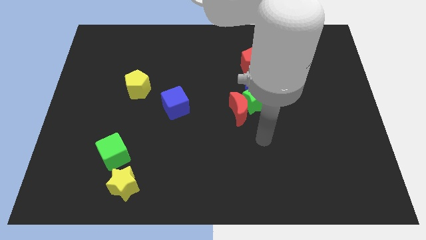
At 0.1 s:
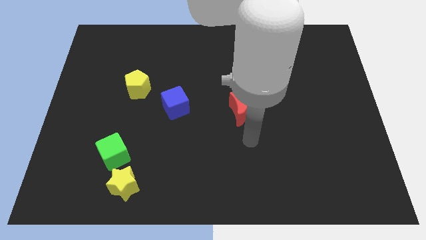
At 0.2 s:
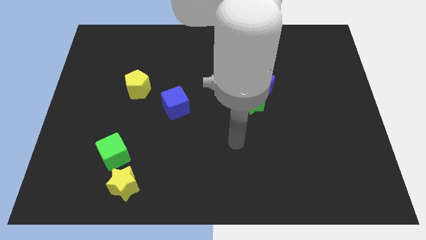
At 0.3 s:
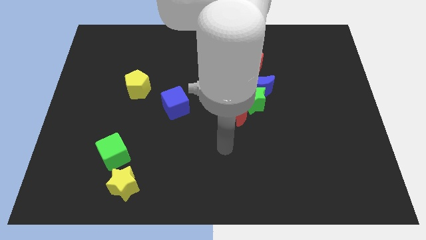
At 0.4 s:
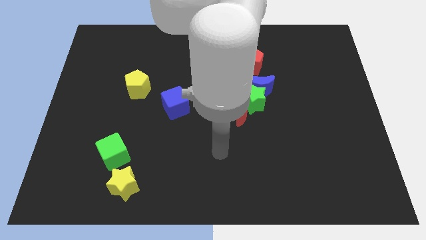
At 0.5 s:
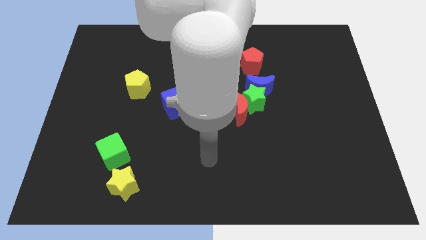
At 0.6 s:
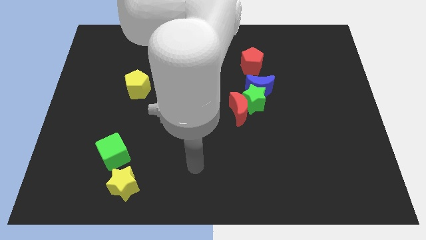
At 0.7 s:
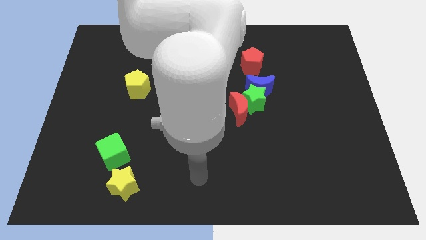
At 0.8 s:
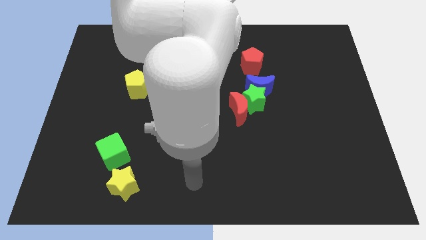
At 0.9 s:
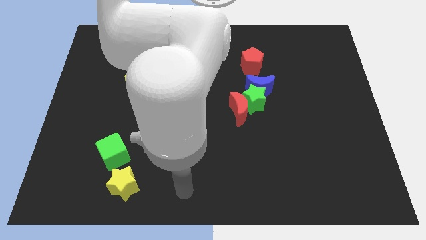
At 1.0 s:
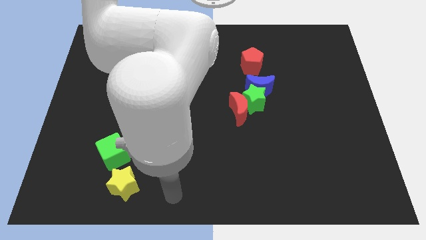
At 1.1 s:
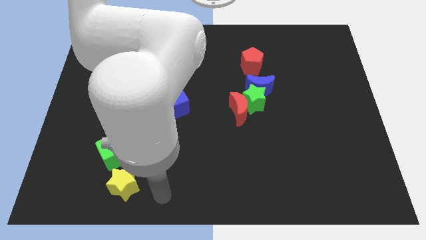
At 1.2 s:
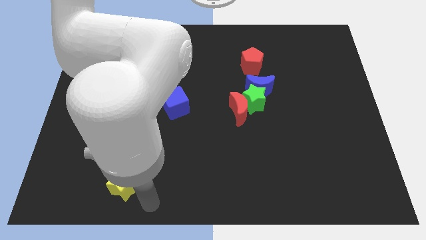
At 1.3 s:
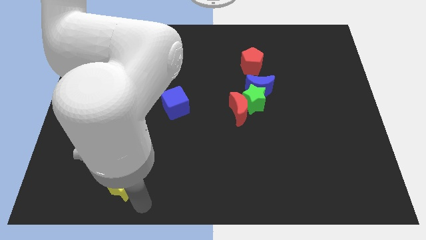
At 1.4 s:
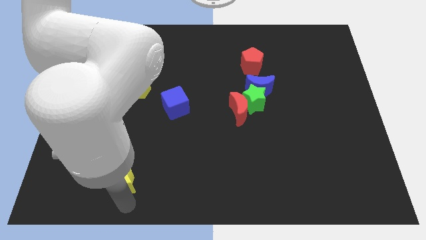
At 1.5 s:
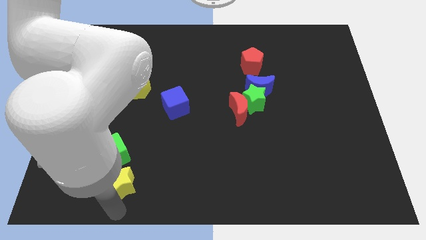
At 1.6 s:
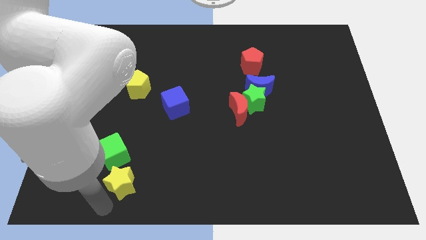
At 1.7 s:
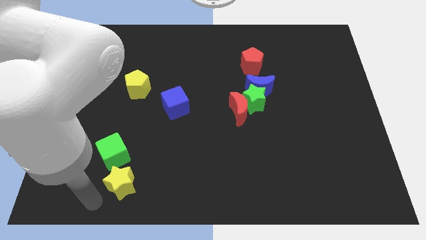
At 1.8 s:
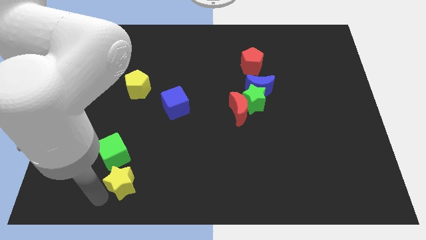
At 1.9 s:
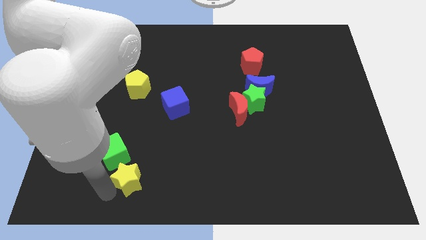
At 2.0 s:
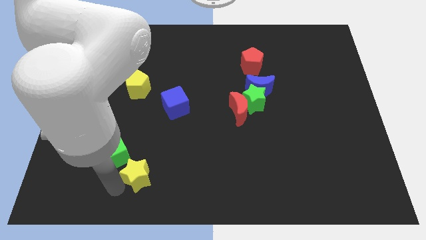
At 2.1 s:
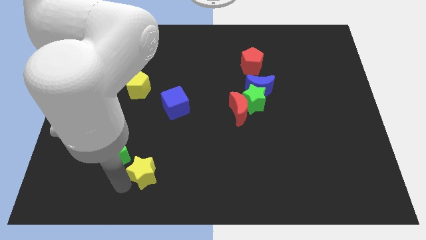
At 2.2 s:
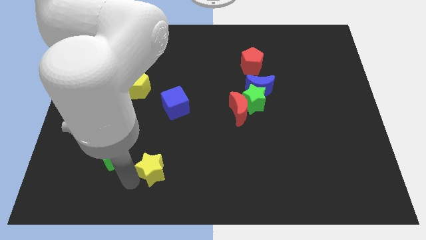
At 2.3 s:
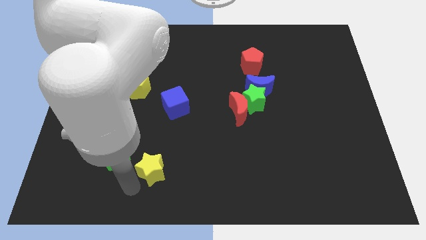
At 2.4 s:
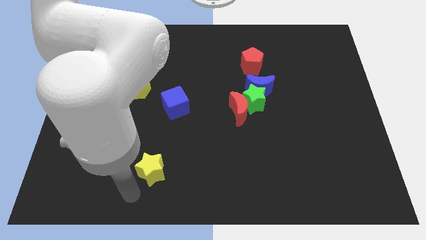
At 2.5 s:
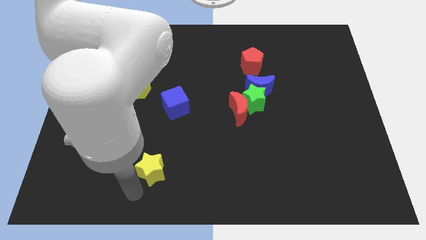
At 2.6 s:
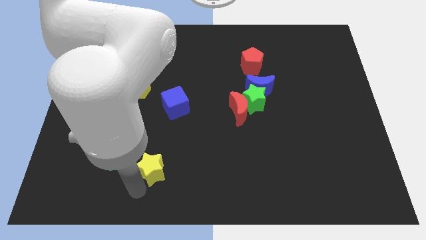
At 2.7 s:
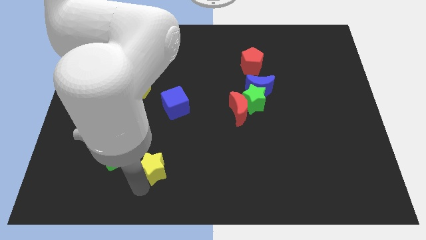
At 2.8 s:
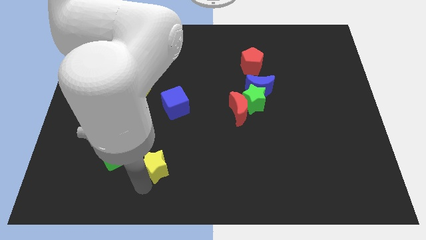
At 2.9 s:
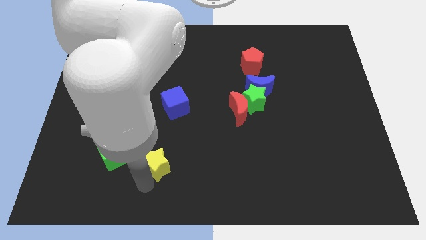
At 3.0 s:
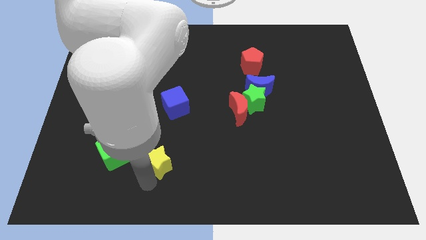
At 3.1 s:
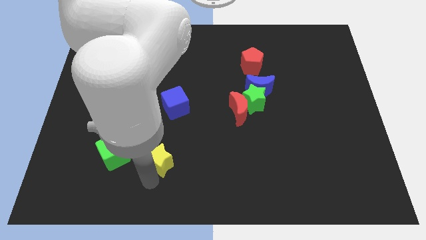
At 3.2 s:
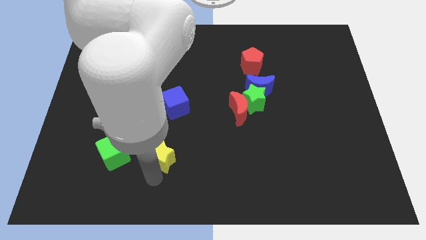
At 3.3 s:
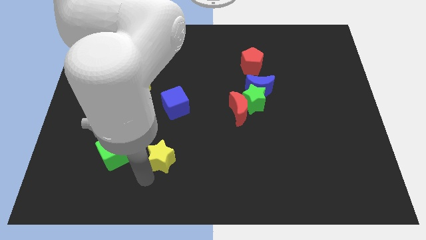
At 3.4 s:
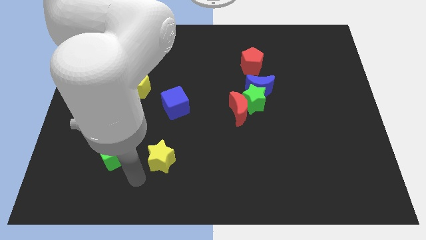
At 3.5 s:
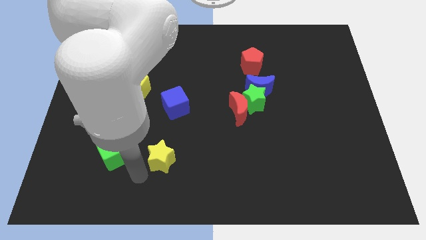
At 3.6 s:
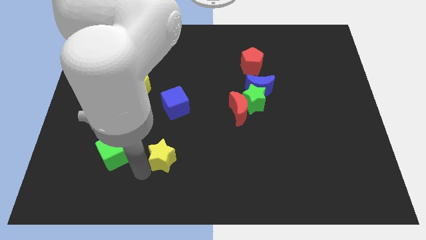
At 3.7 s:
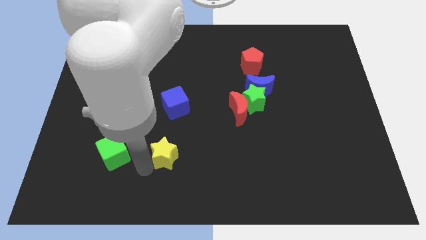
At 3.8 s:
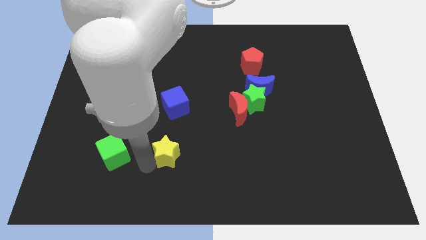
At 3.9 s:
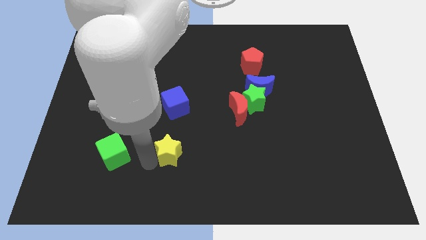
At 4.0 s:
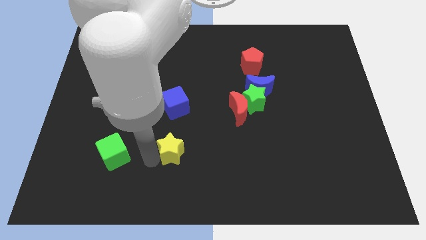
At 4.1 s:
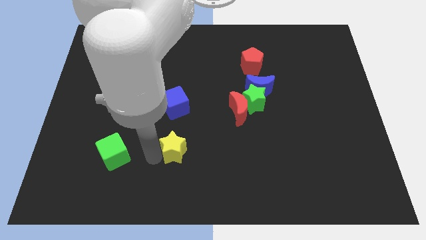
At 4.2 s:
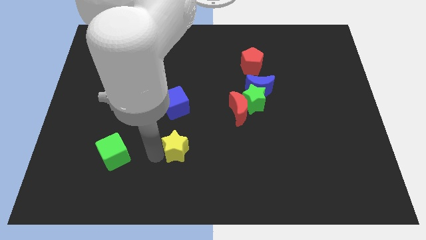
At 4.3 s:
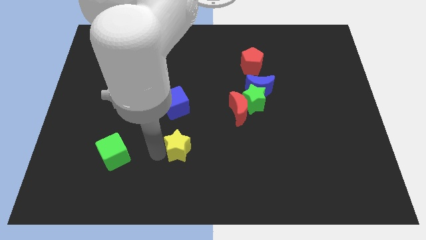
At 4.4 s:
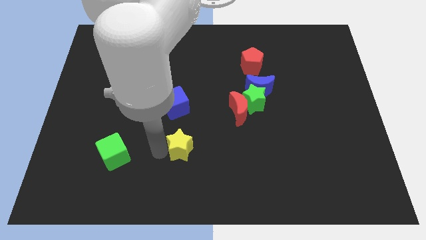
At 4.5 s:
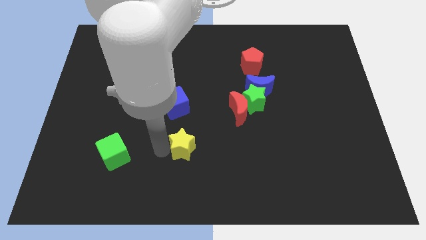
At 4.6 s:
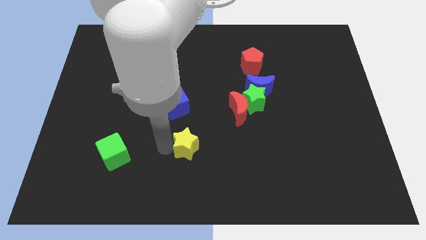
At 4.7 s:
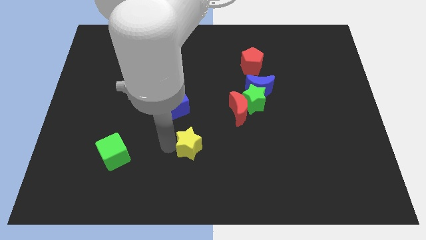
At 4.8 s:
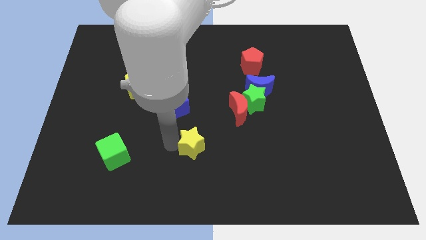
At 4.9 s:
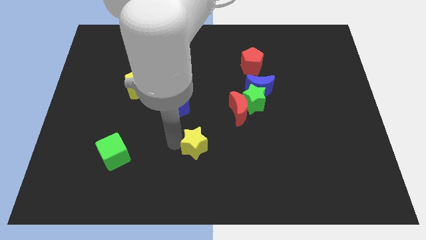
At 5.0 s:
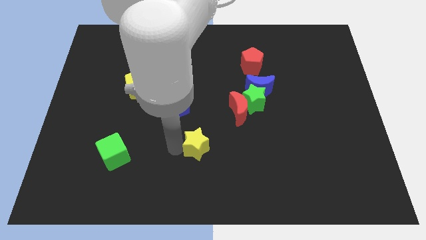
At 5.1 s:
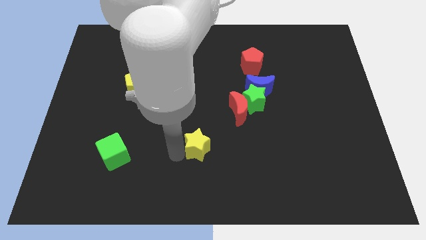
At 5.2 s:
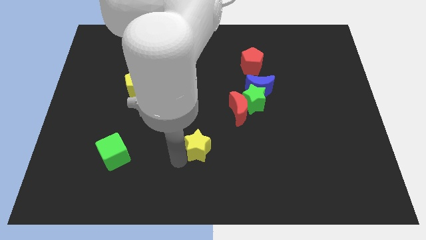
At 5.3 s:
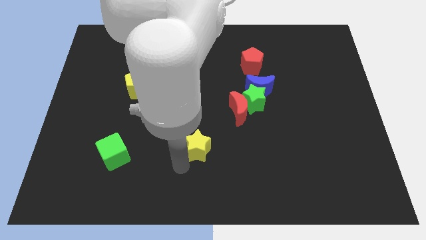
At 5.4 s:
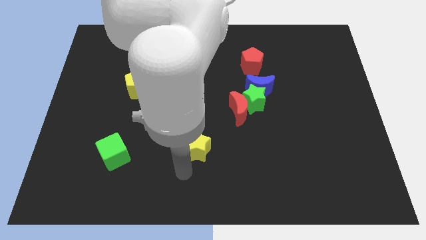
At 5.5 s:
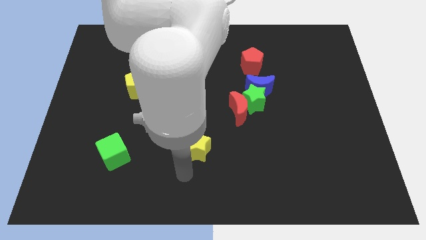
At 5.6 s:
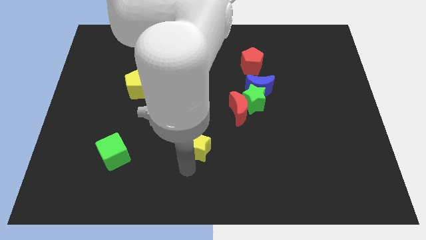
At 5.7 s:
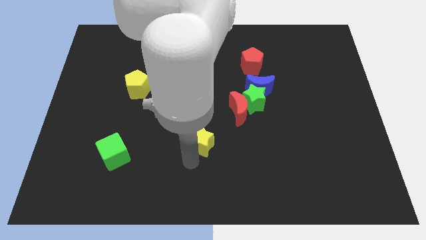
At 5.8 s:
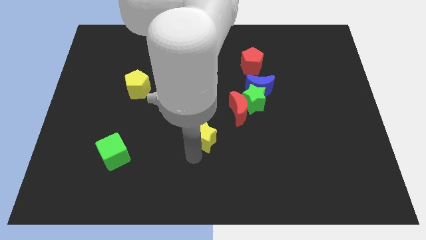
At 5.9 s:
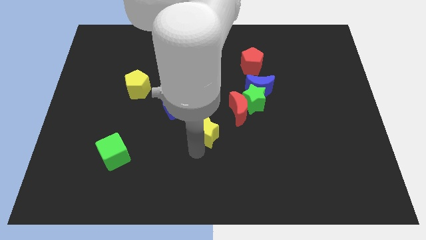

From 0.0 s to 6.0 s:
move the yellow star diagonally up and right

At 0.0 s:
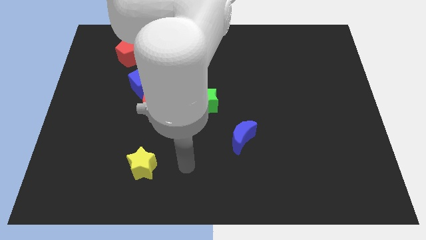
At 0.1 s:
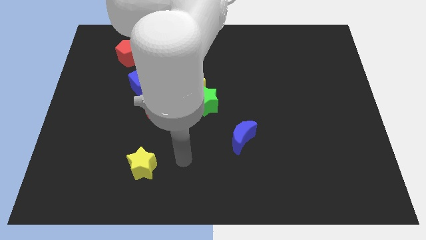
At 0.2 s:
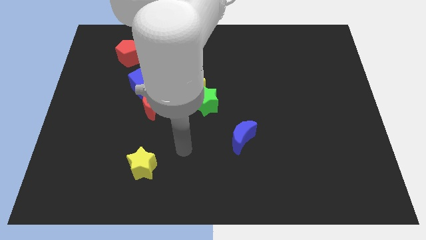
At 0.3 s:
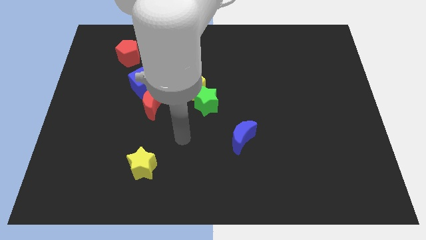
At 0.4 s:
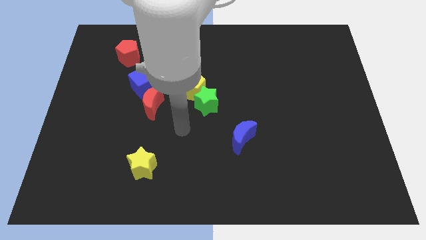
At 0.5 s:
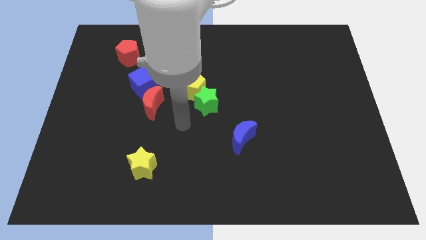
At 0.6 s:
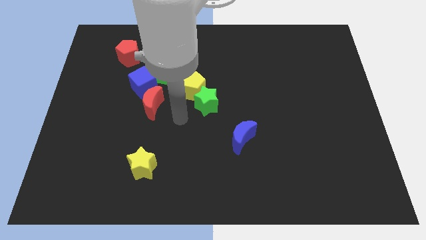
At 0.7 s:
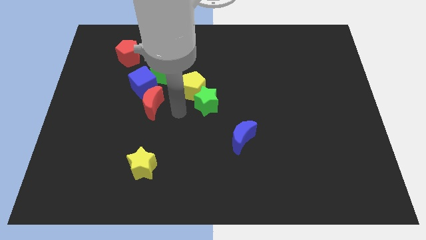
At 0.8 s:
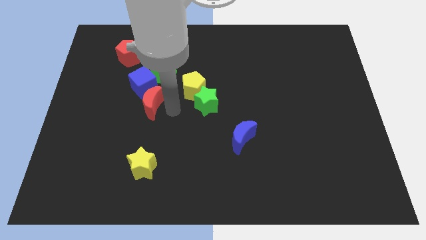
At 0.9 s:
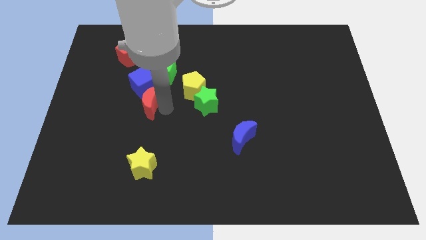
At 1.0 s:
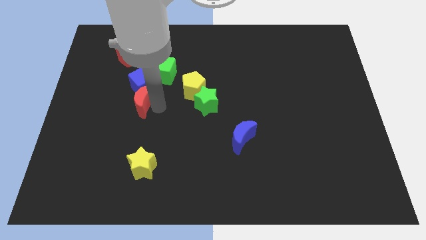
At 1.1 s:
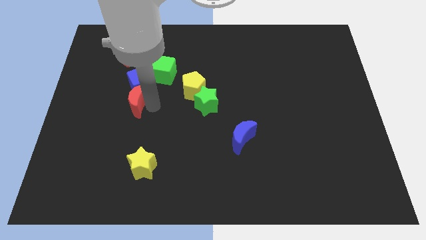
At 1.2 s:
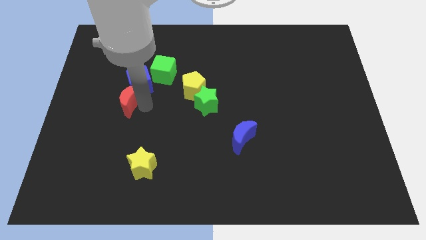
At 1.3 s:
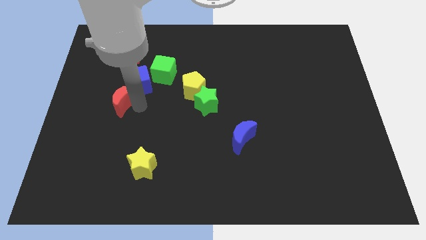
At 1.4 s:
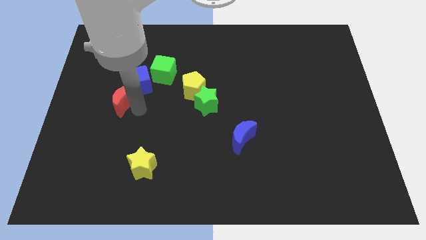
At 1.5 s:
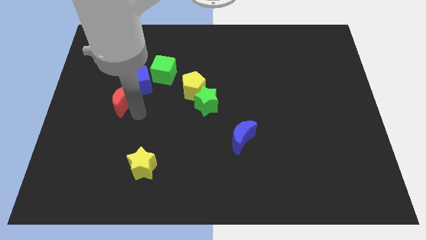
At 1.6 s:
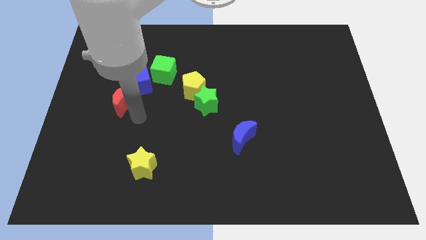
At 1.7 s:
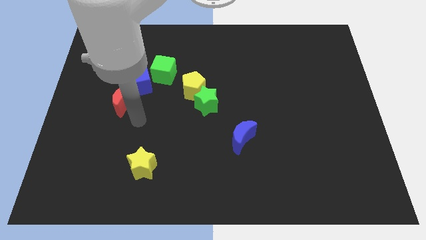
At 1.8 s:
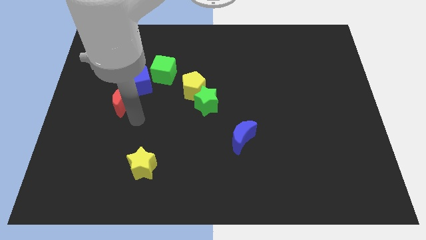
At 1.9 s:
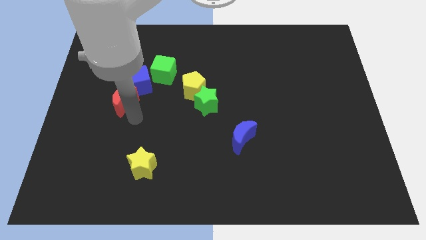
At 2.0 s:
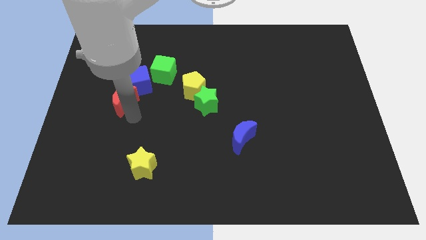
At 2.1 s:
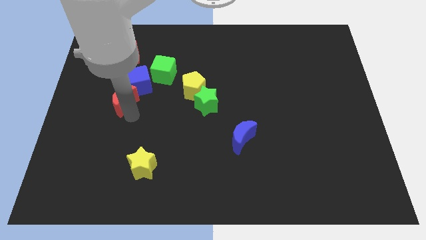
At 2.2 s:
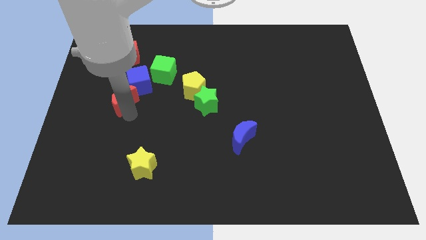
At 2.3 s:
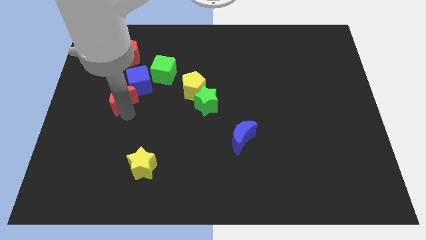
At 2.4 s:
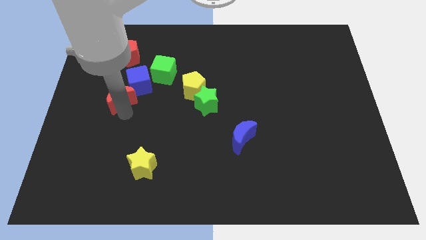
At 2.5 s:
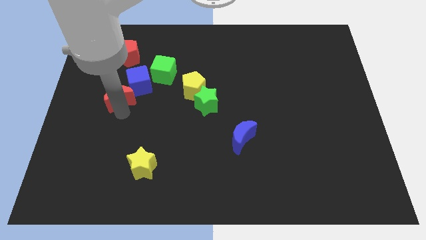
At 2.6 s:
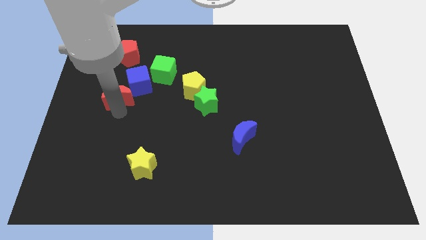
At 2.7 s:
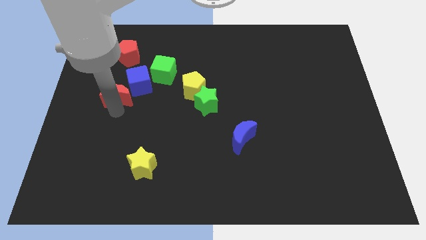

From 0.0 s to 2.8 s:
push the red moon up and to the left diagonally somewhat
